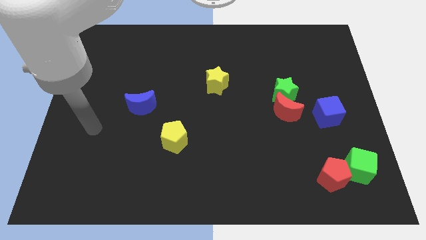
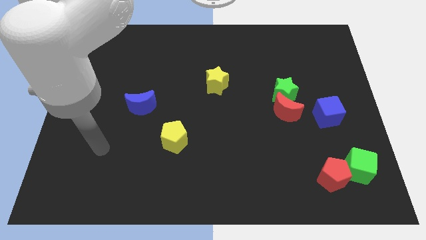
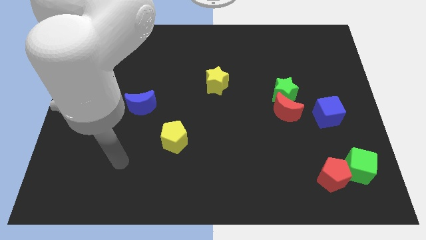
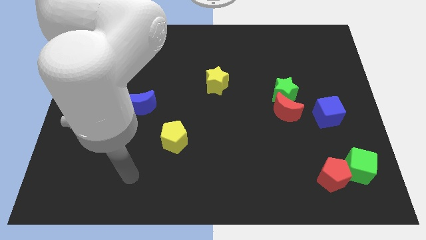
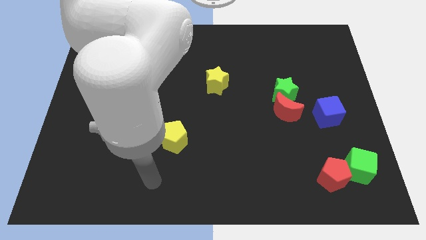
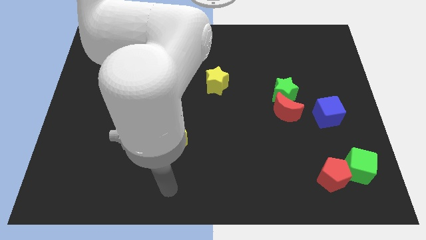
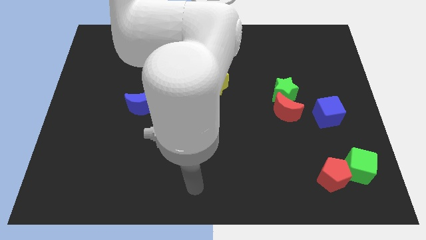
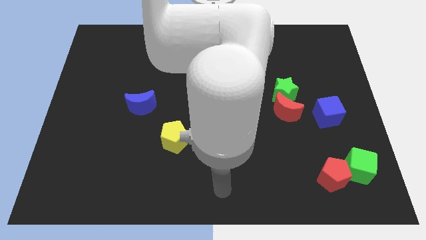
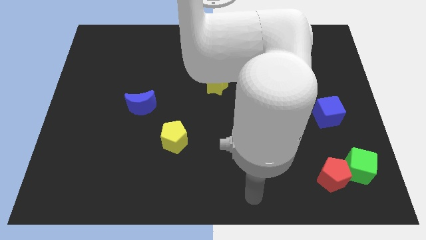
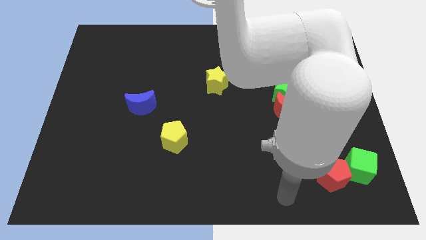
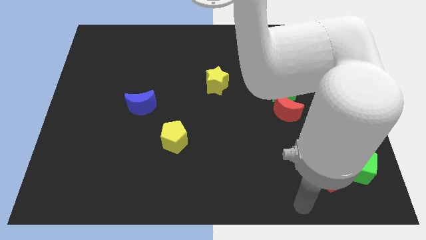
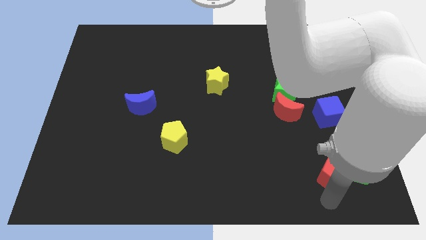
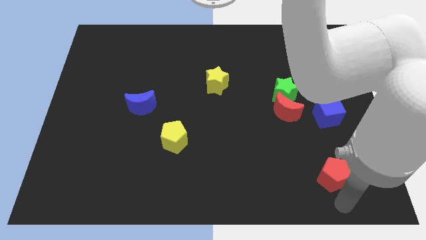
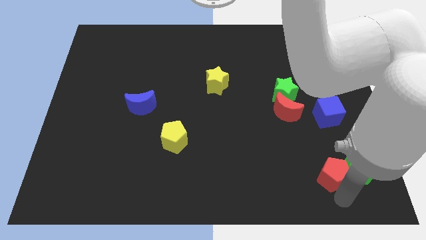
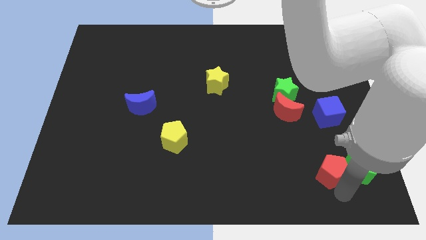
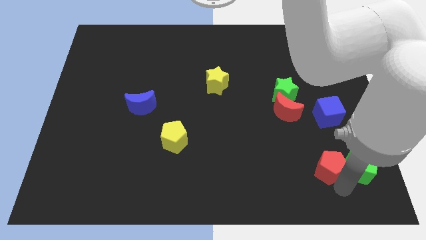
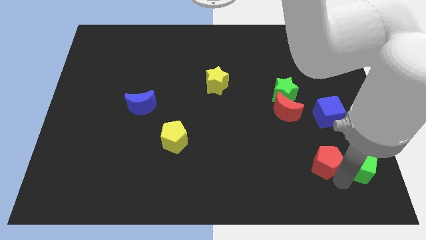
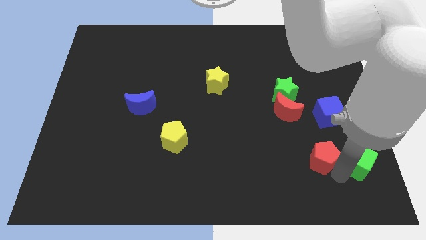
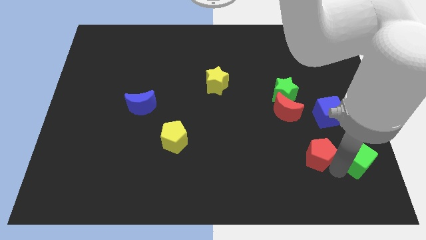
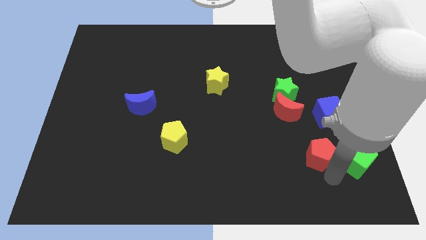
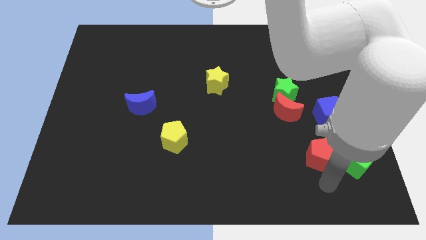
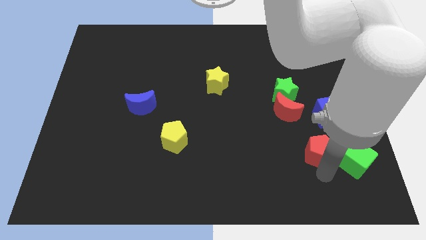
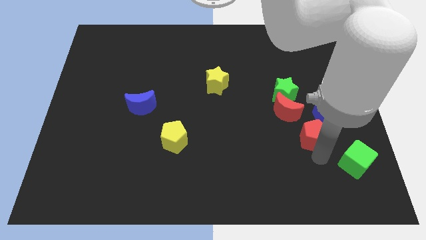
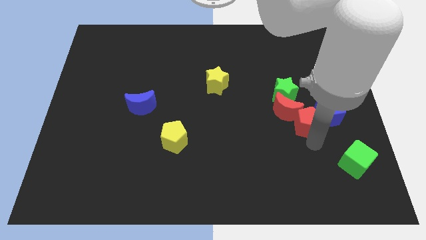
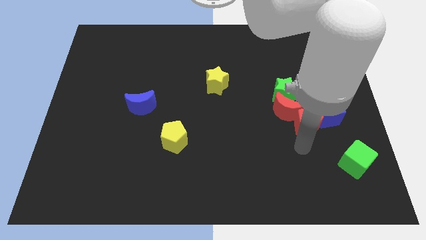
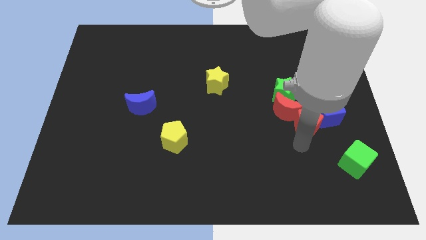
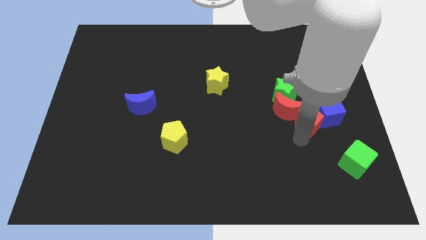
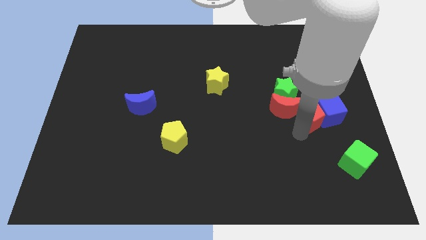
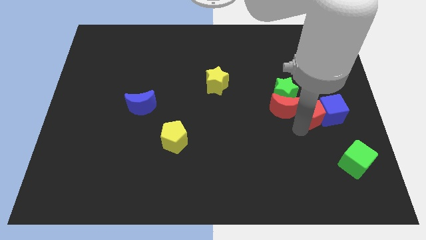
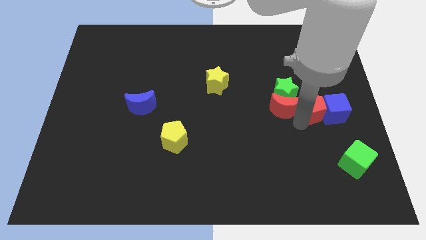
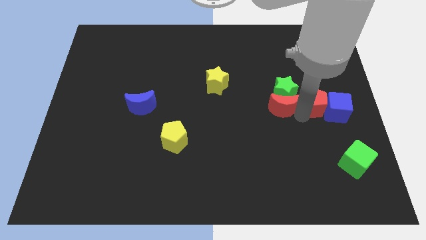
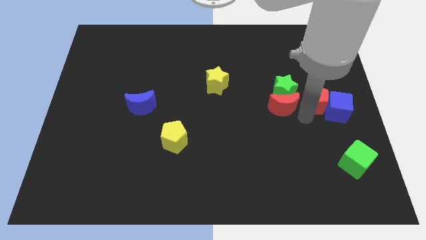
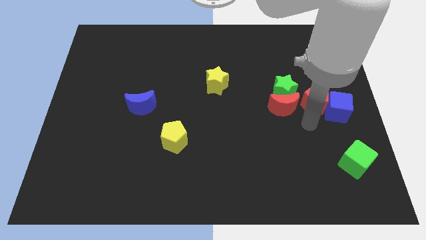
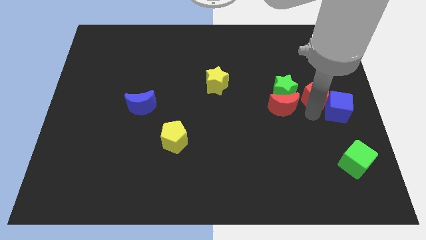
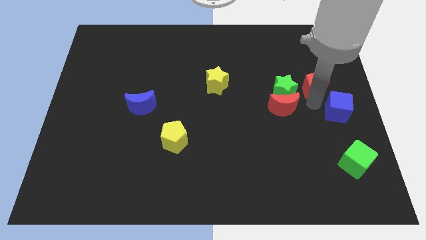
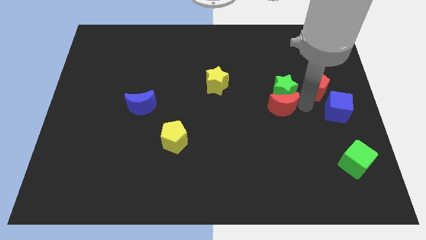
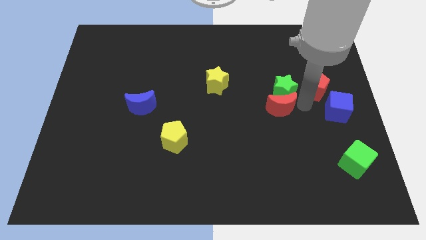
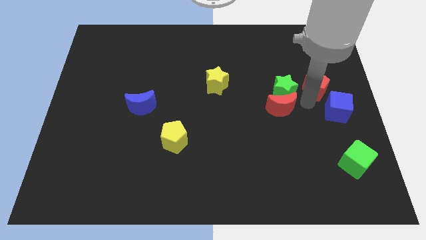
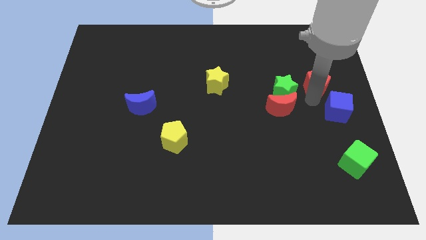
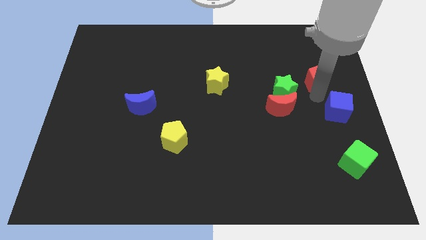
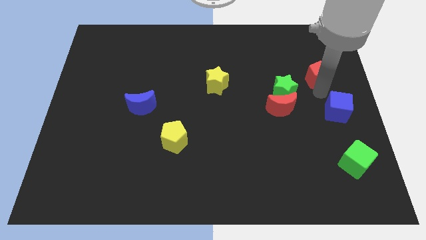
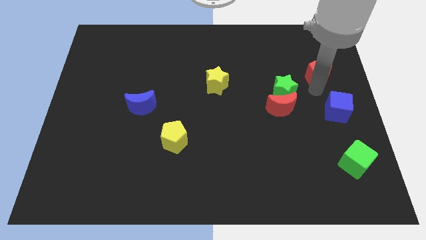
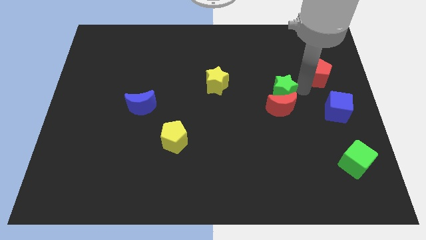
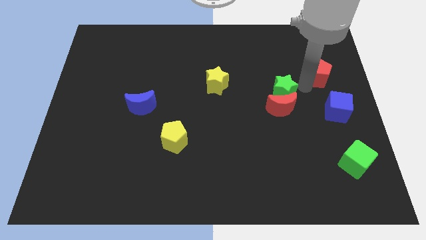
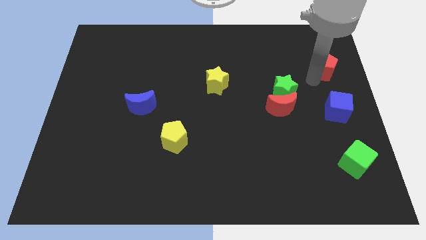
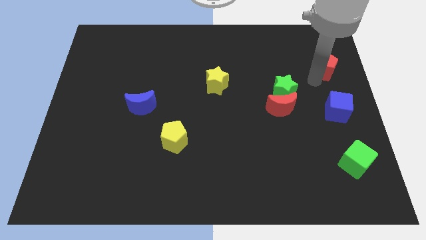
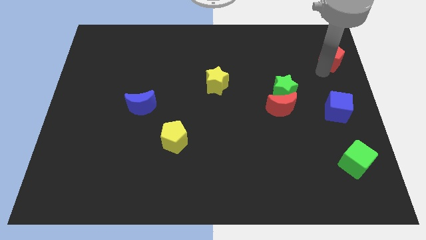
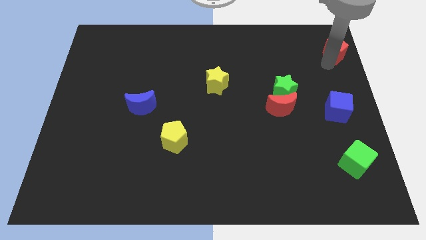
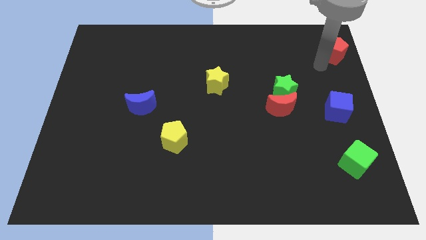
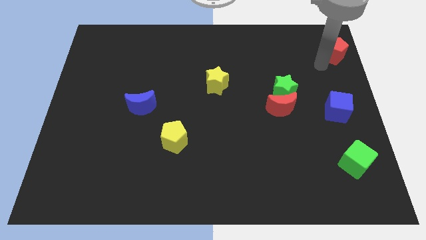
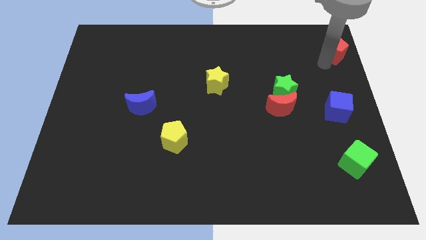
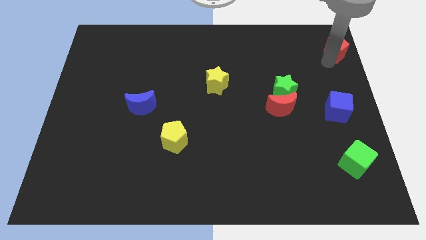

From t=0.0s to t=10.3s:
slide the red pentagon to the top right of the board

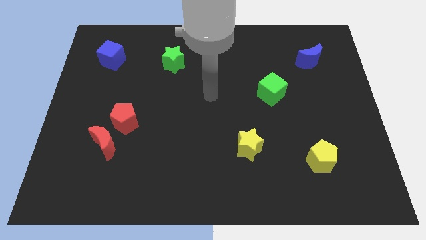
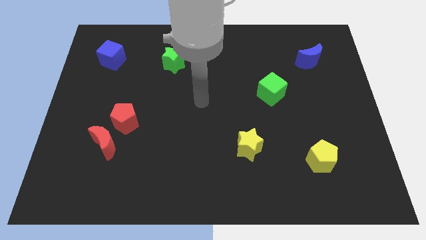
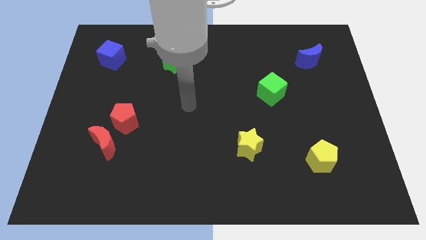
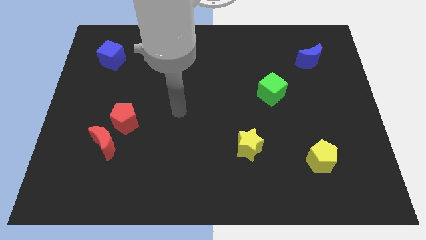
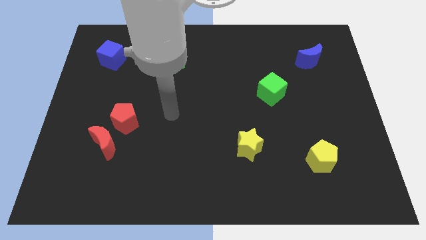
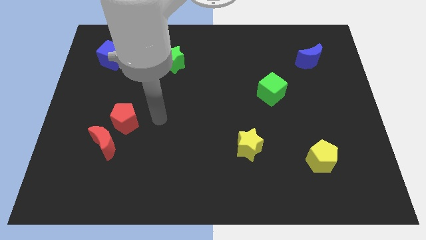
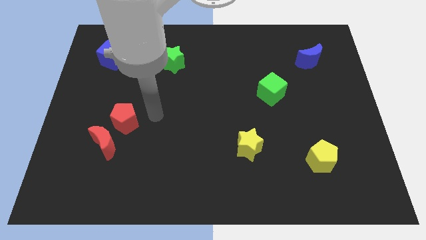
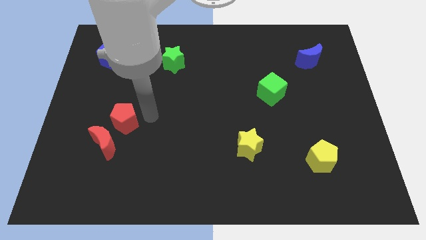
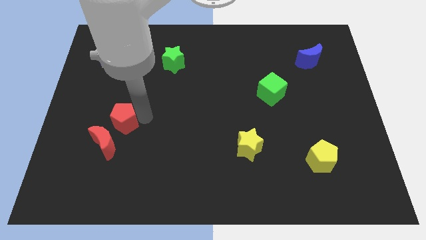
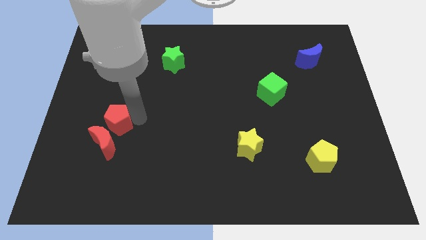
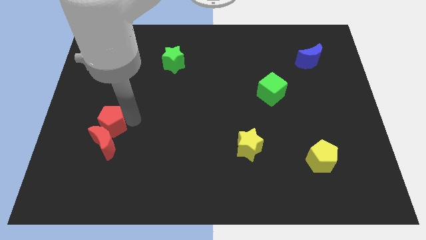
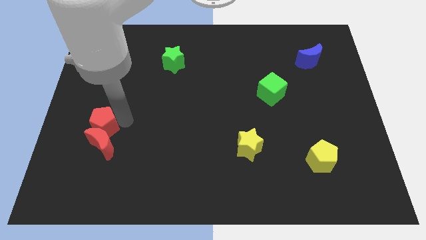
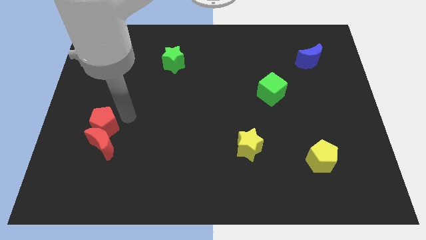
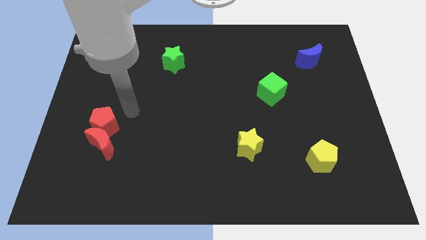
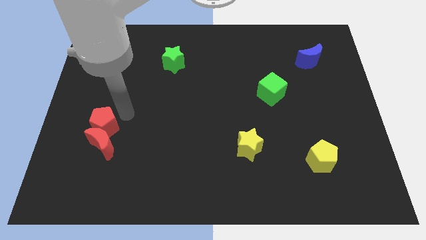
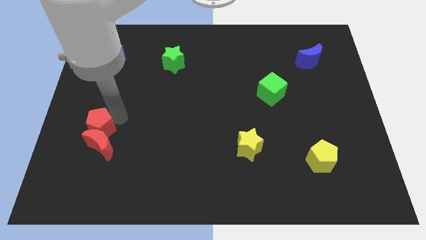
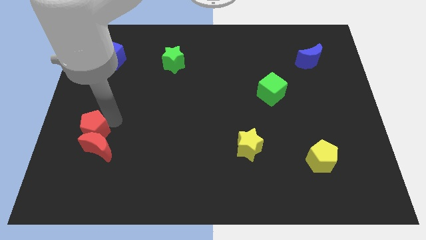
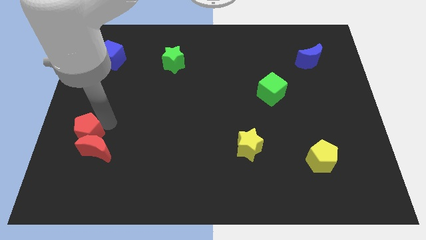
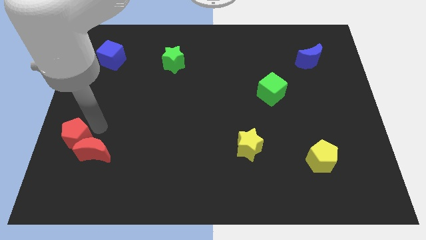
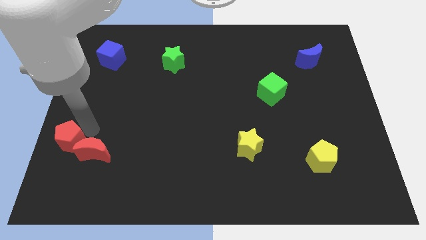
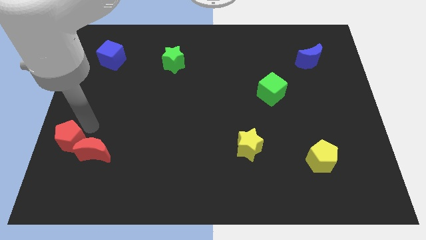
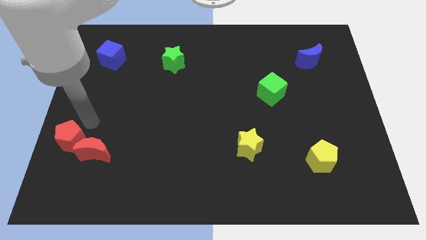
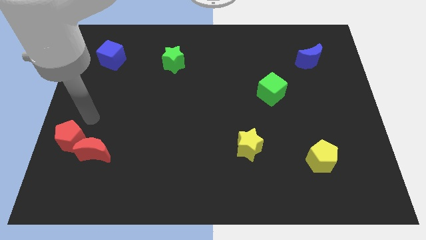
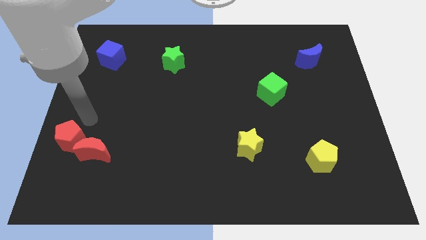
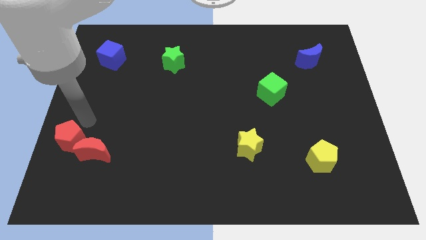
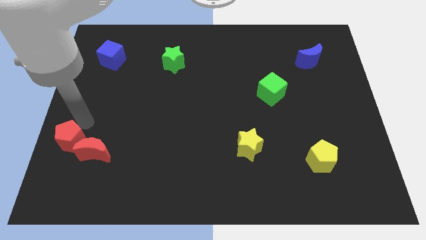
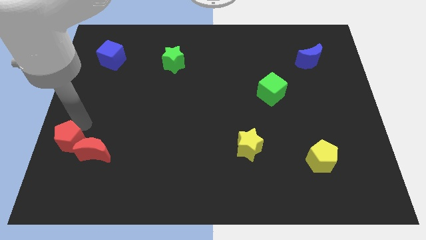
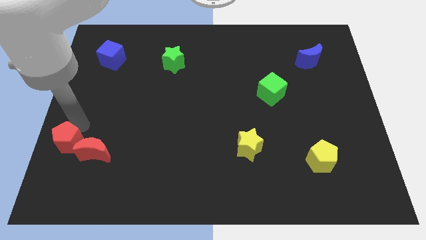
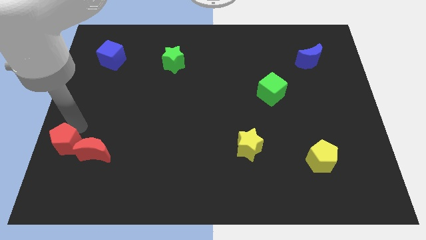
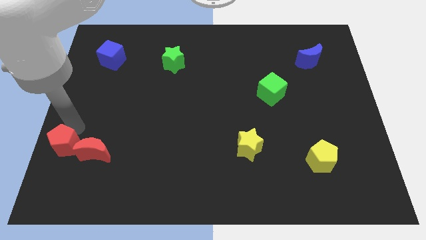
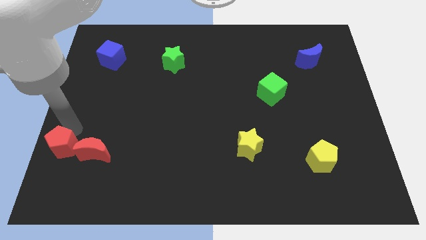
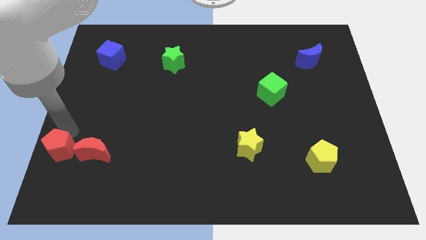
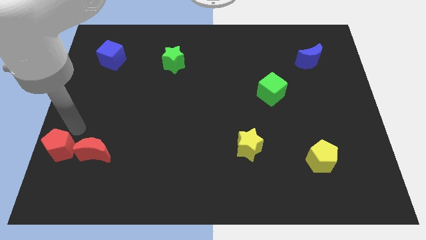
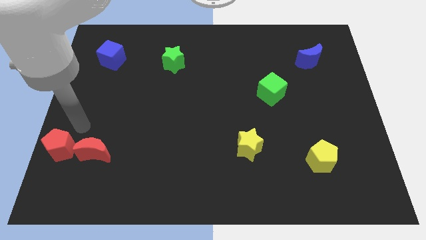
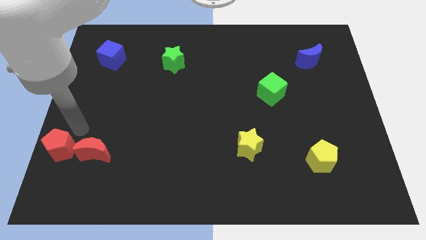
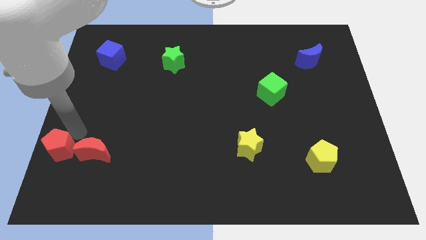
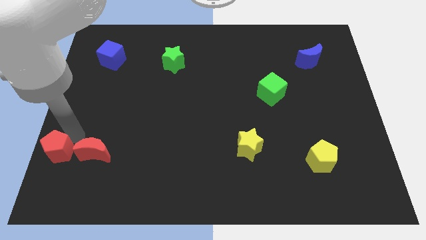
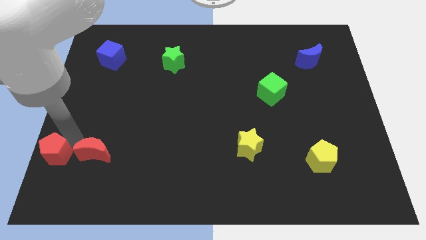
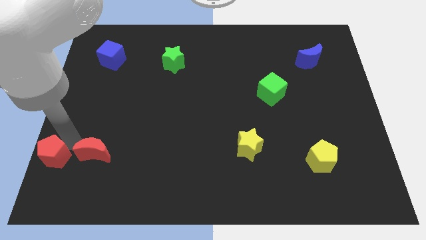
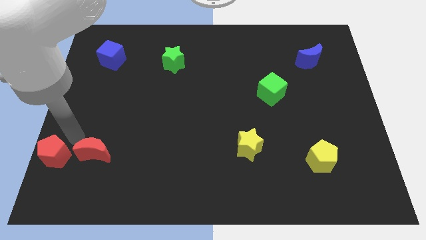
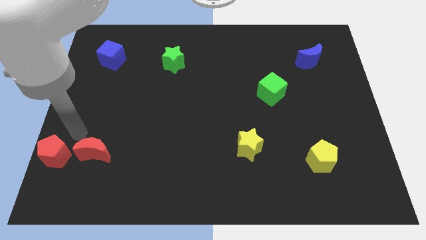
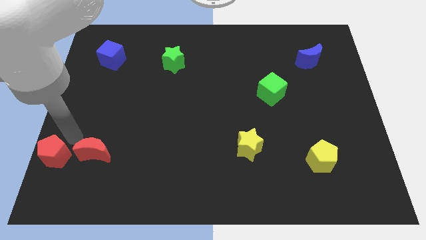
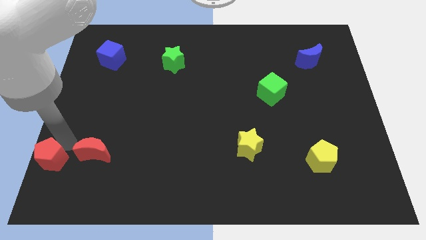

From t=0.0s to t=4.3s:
push the red pentagon to the bottom left corner
